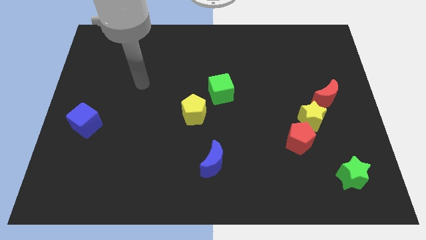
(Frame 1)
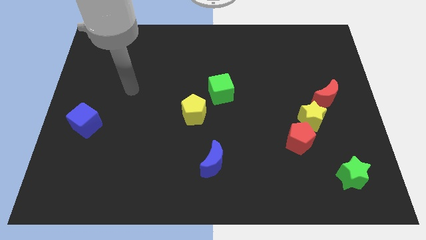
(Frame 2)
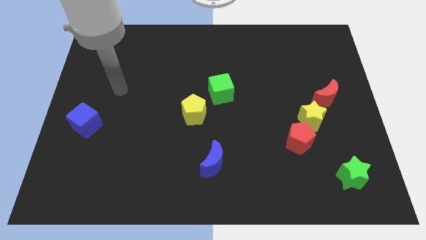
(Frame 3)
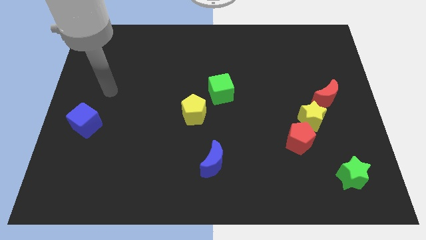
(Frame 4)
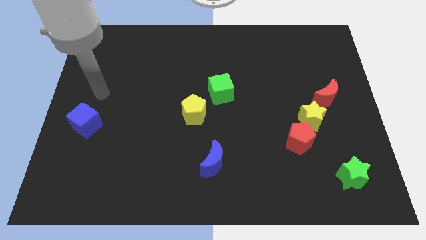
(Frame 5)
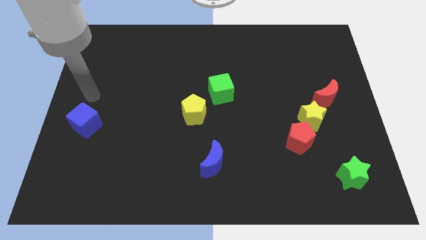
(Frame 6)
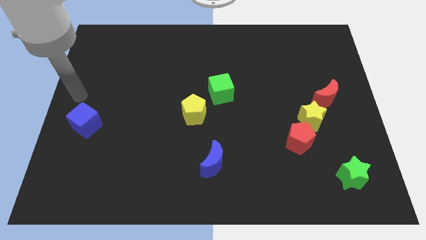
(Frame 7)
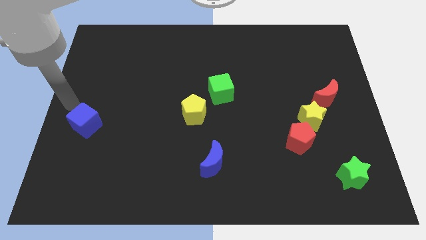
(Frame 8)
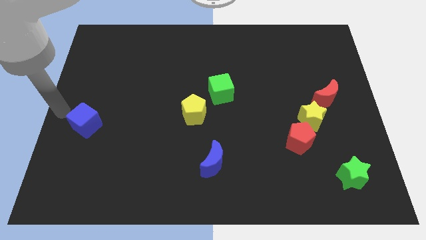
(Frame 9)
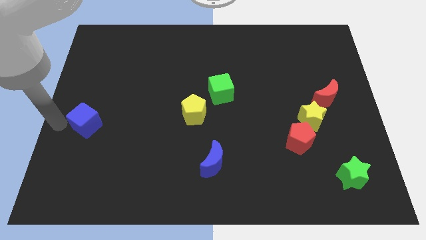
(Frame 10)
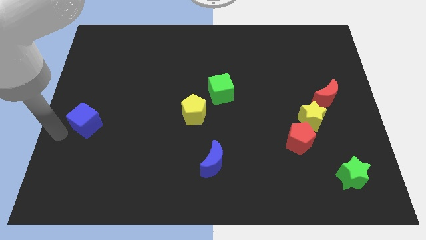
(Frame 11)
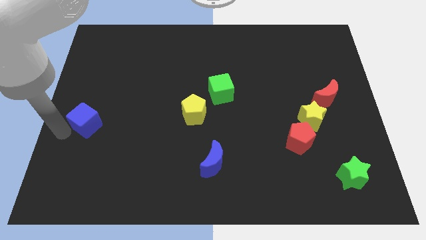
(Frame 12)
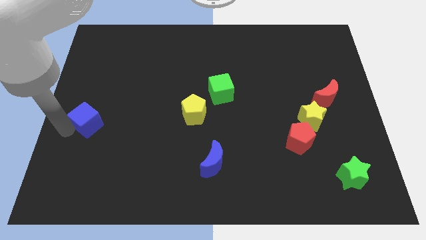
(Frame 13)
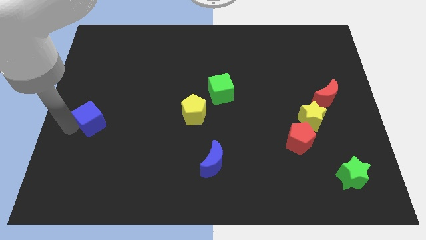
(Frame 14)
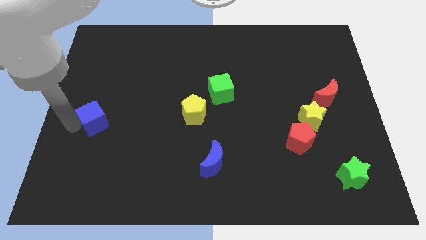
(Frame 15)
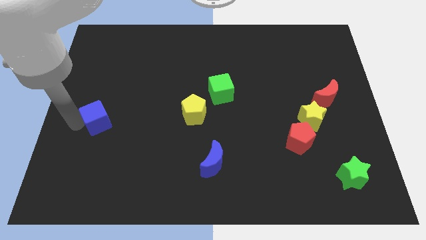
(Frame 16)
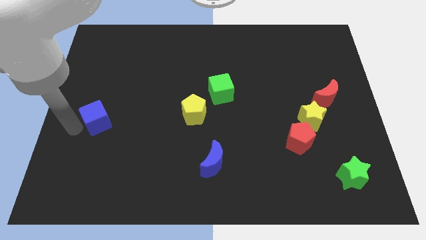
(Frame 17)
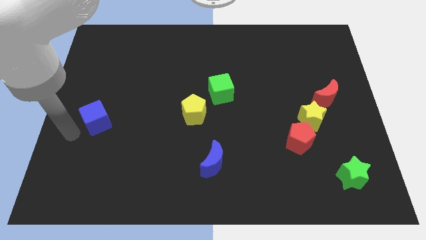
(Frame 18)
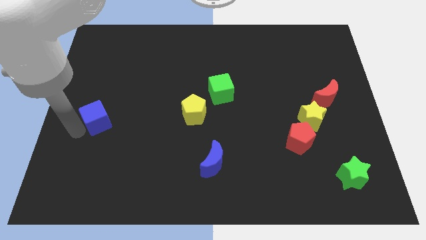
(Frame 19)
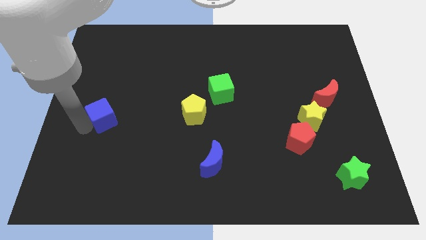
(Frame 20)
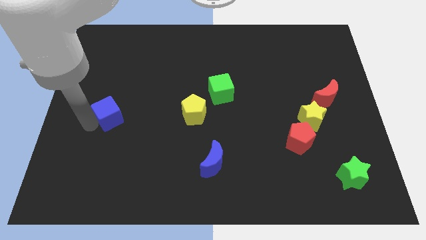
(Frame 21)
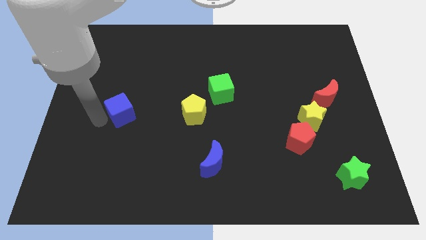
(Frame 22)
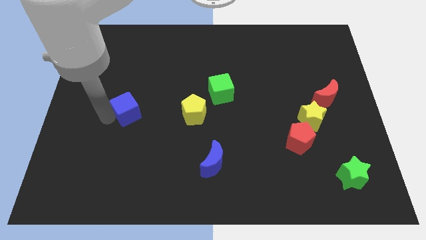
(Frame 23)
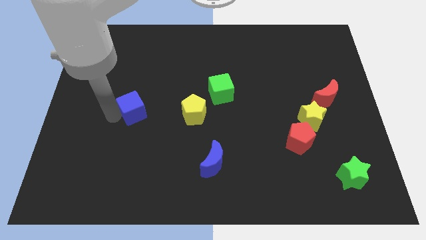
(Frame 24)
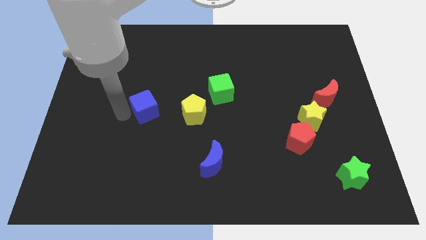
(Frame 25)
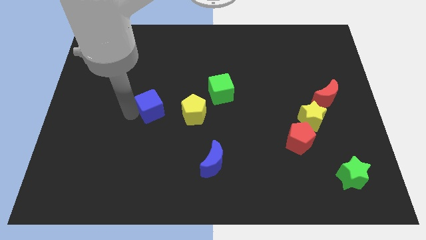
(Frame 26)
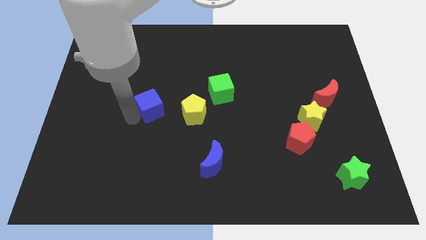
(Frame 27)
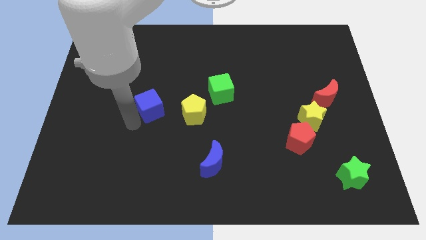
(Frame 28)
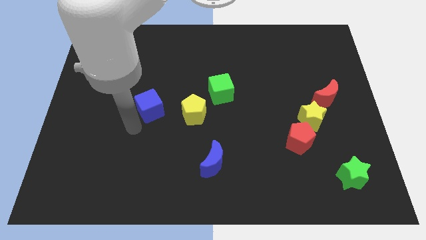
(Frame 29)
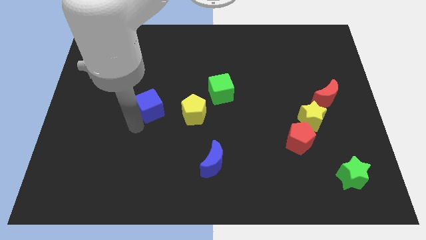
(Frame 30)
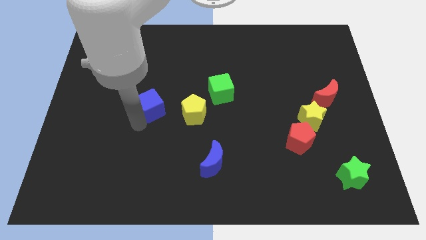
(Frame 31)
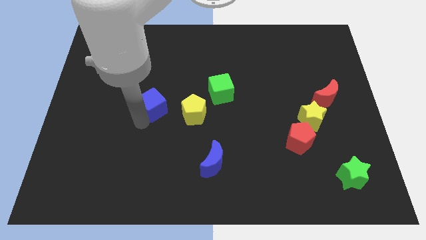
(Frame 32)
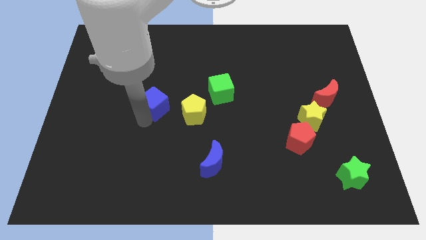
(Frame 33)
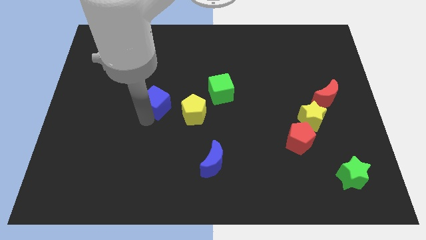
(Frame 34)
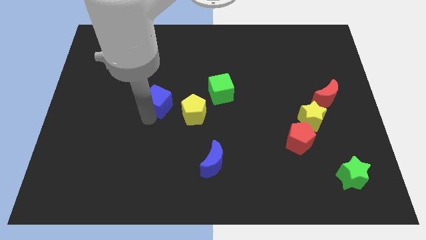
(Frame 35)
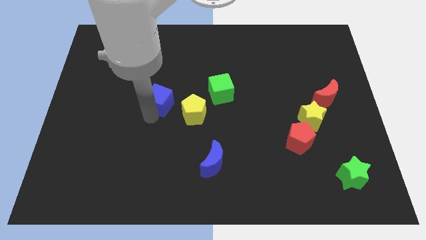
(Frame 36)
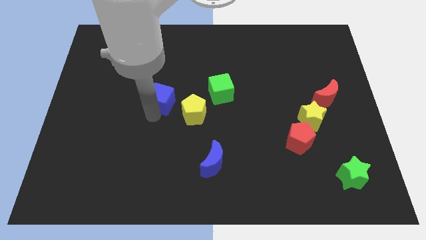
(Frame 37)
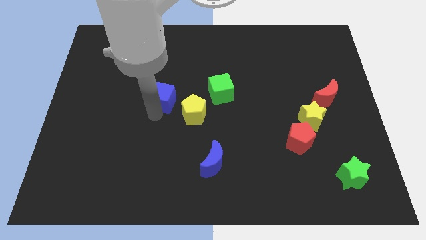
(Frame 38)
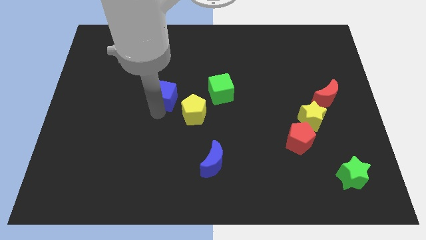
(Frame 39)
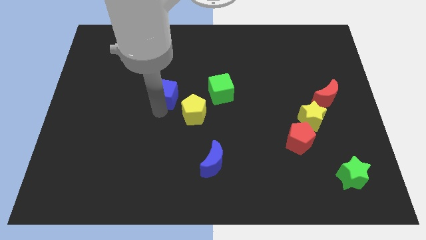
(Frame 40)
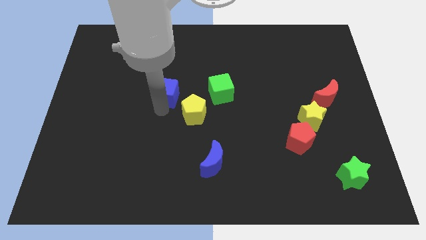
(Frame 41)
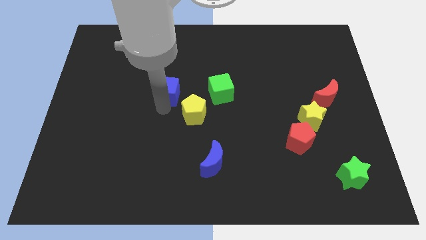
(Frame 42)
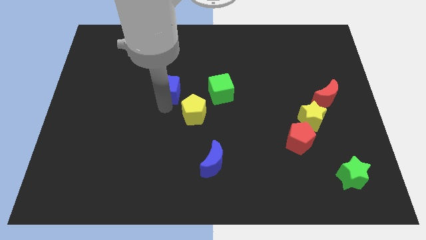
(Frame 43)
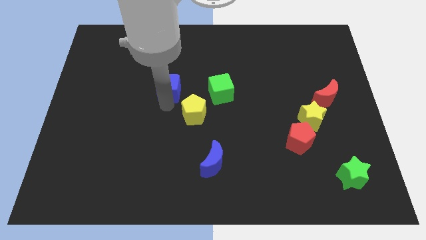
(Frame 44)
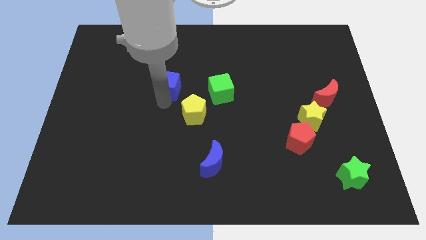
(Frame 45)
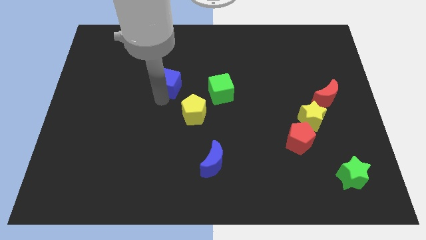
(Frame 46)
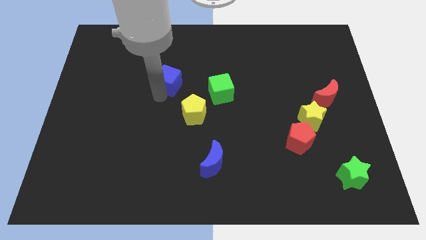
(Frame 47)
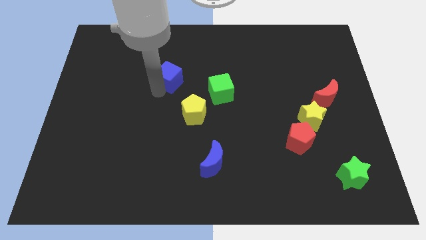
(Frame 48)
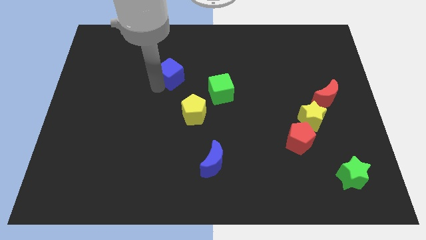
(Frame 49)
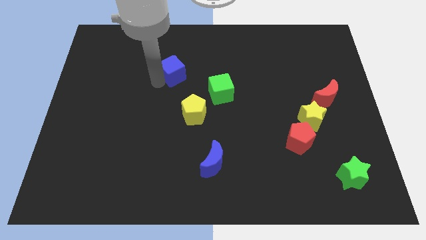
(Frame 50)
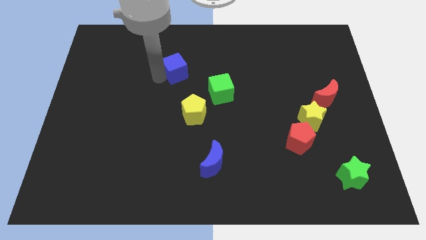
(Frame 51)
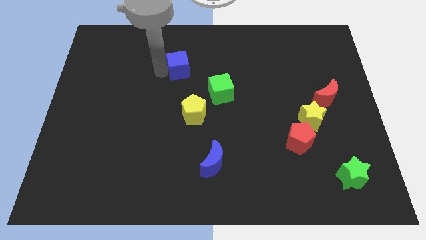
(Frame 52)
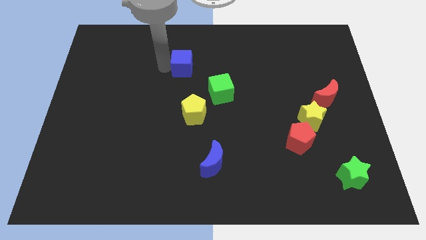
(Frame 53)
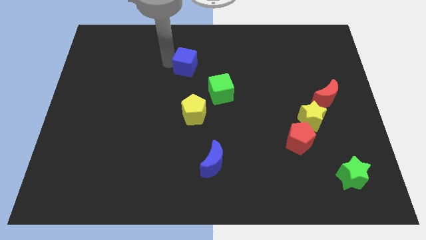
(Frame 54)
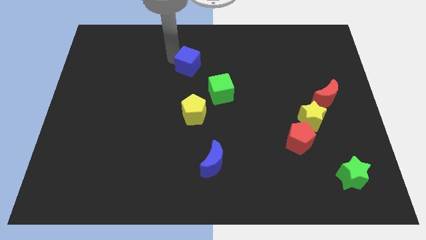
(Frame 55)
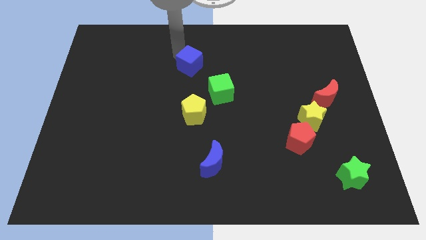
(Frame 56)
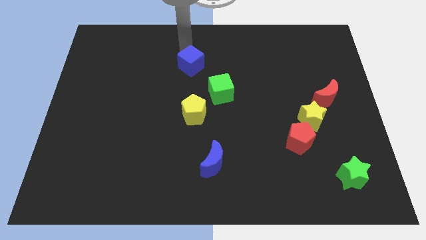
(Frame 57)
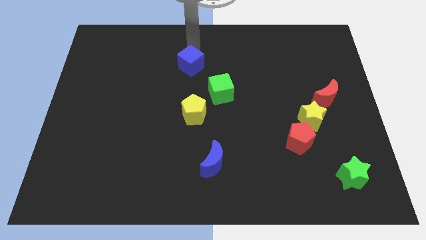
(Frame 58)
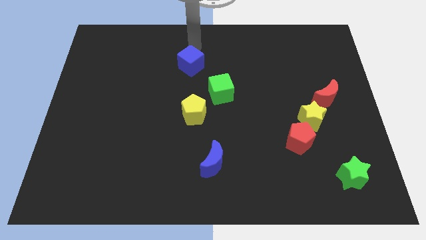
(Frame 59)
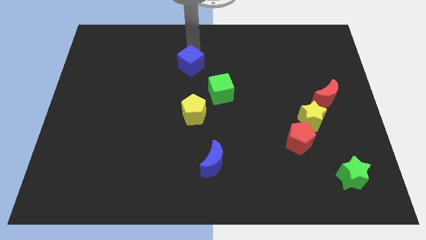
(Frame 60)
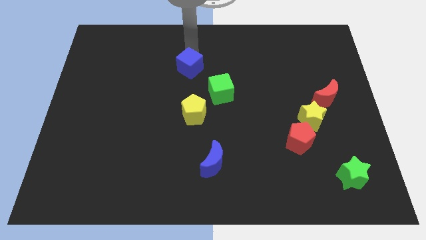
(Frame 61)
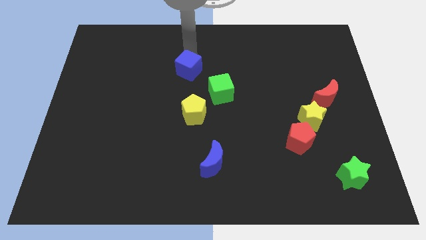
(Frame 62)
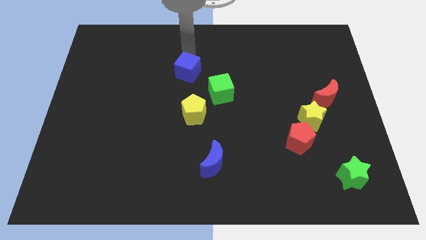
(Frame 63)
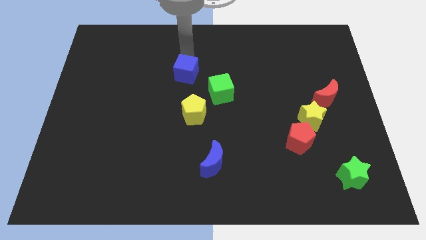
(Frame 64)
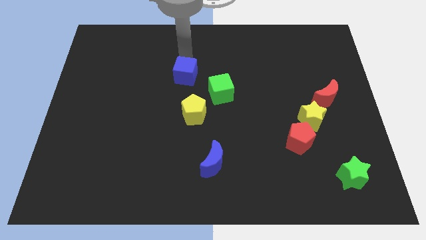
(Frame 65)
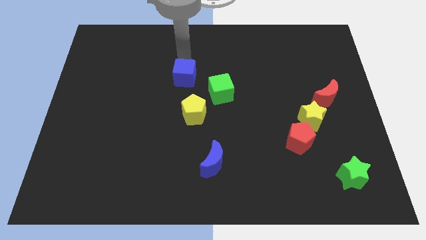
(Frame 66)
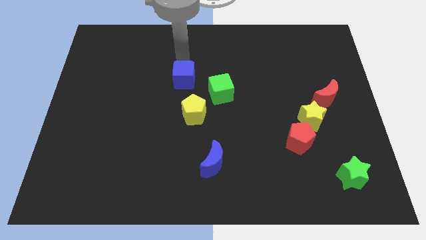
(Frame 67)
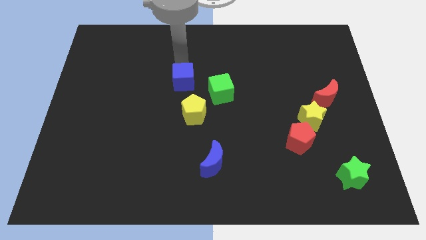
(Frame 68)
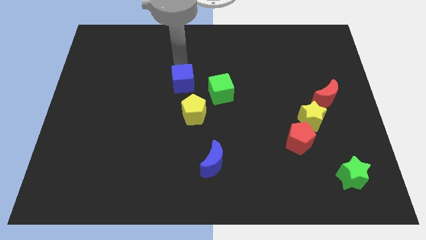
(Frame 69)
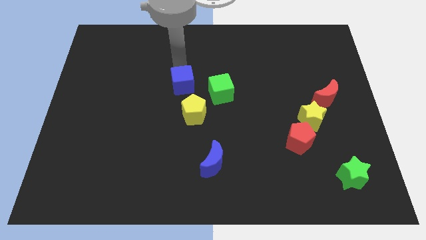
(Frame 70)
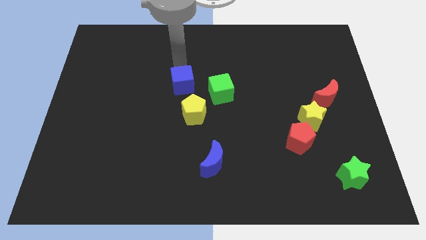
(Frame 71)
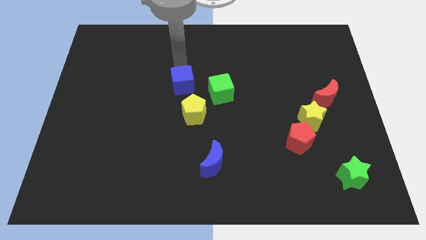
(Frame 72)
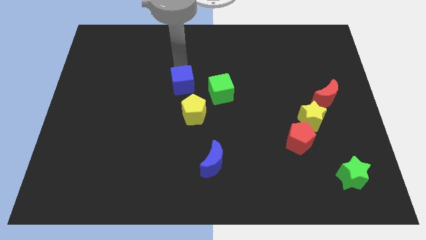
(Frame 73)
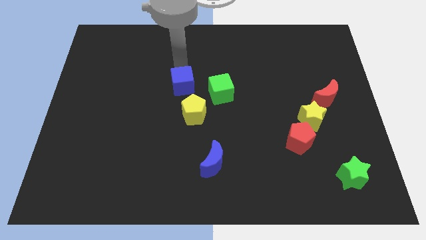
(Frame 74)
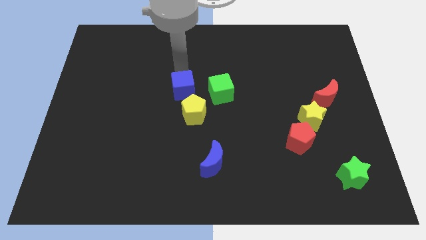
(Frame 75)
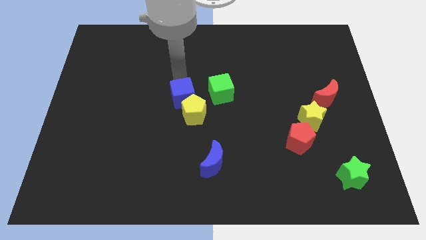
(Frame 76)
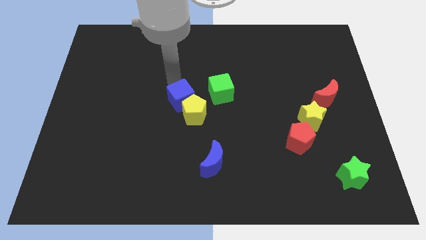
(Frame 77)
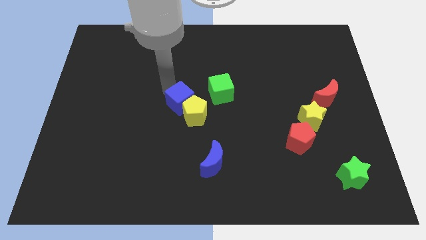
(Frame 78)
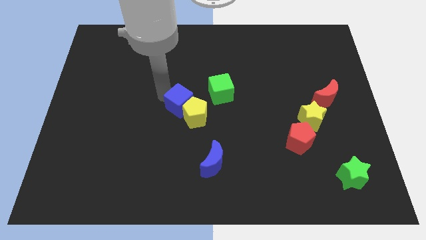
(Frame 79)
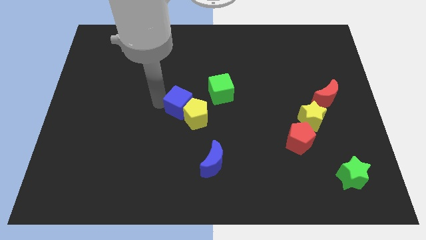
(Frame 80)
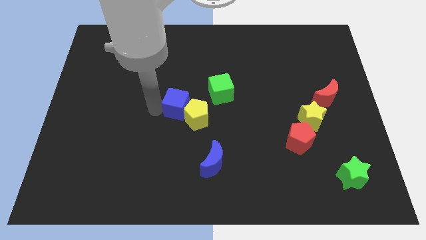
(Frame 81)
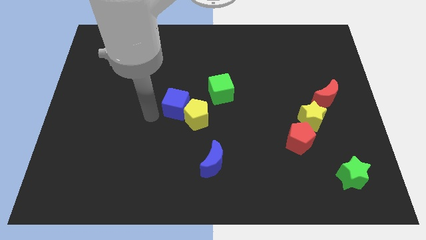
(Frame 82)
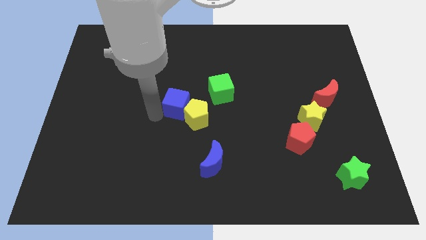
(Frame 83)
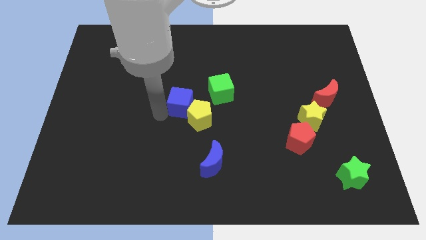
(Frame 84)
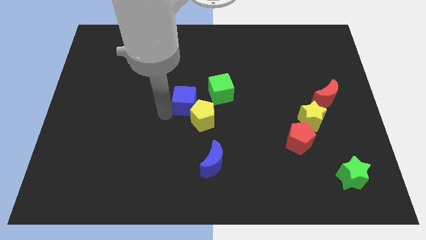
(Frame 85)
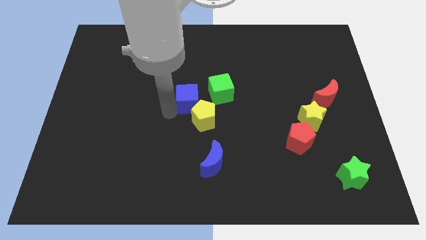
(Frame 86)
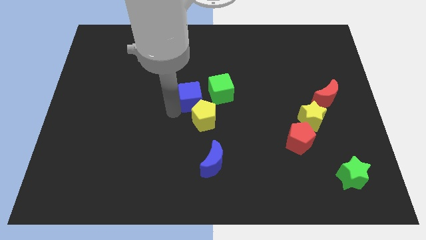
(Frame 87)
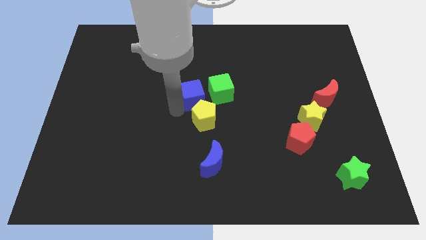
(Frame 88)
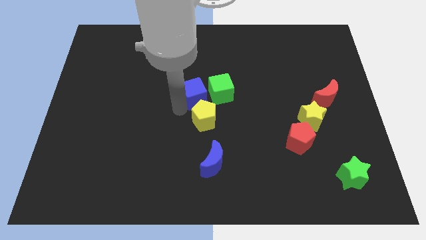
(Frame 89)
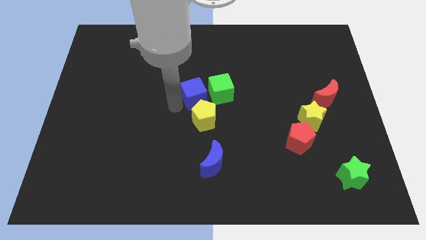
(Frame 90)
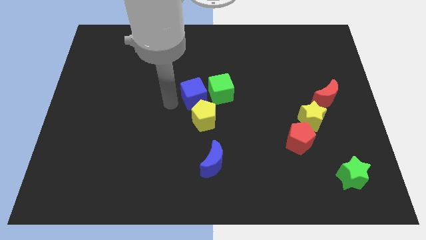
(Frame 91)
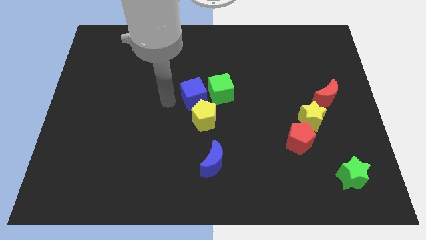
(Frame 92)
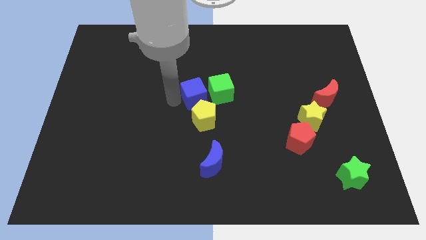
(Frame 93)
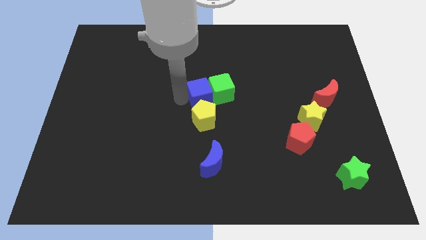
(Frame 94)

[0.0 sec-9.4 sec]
push the blue cube close to the green cube
